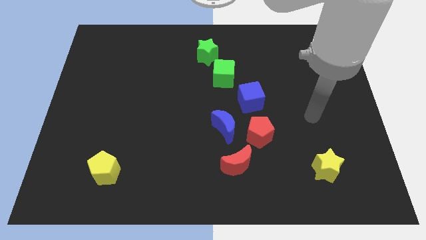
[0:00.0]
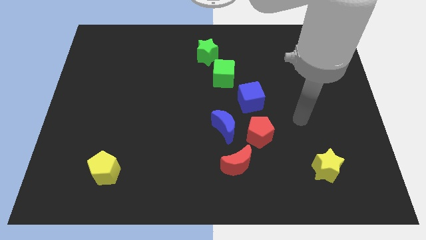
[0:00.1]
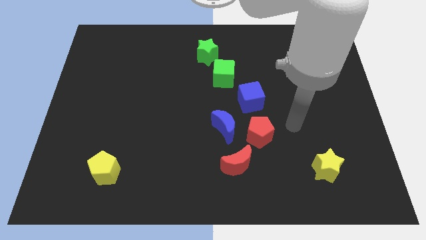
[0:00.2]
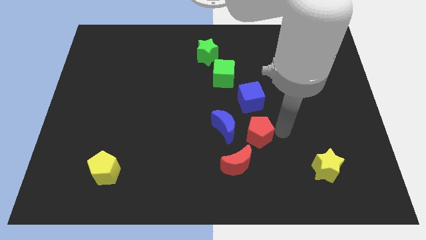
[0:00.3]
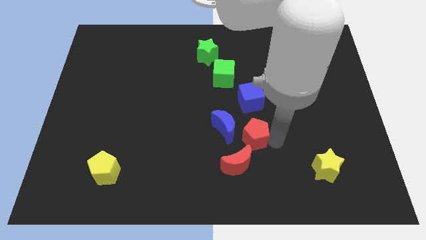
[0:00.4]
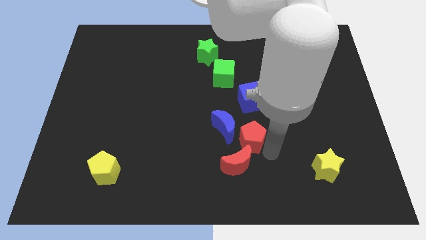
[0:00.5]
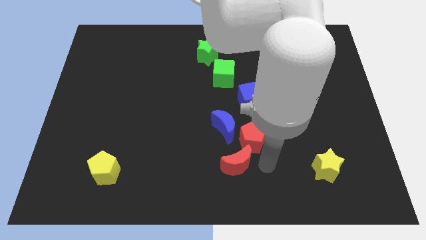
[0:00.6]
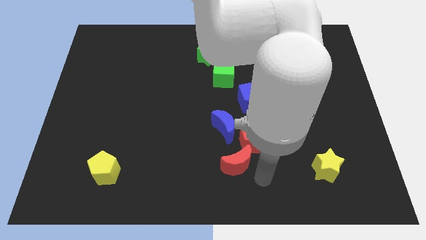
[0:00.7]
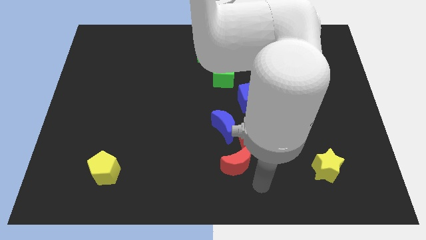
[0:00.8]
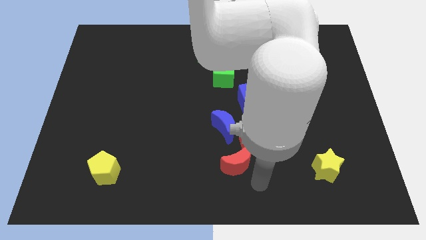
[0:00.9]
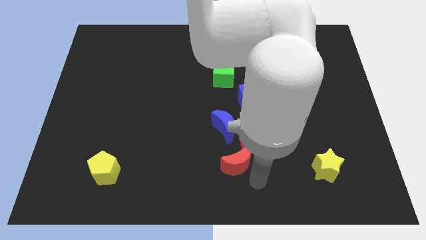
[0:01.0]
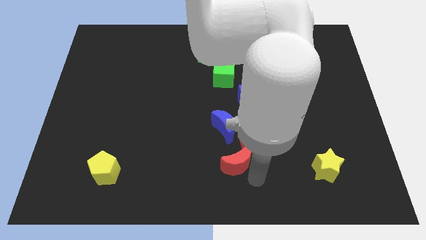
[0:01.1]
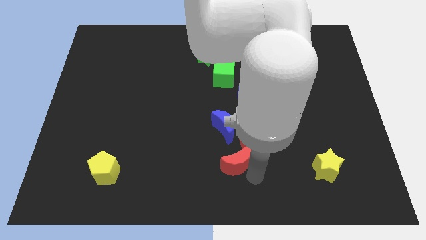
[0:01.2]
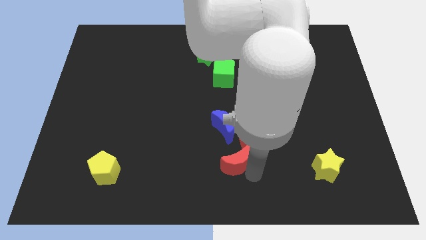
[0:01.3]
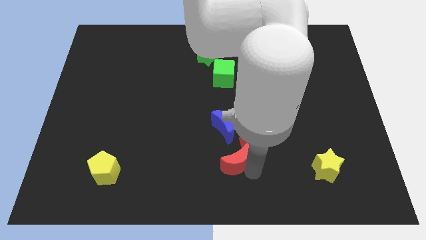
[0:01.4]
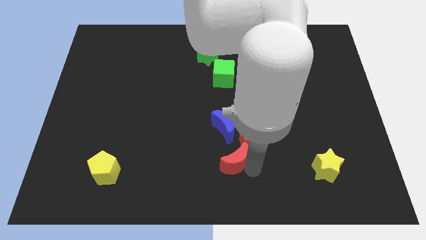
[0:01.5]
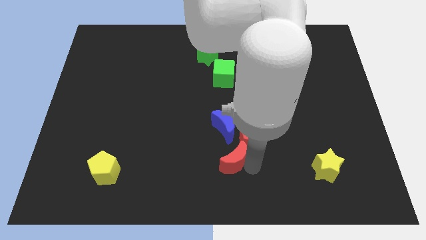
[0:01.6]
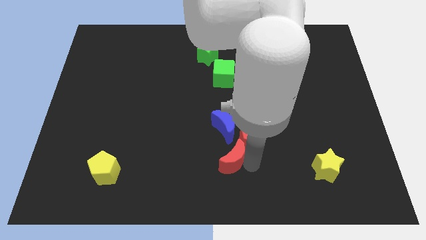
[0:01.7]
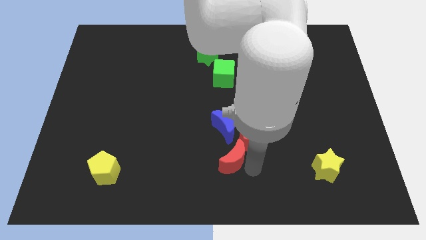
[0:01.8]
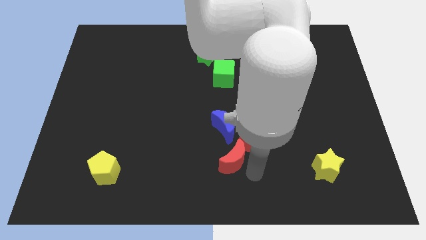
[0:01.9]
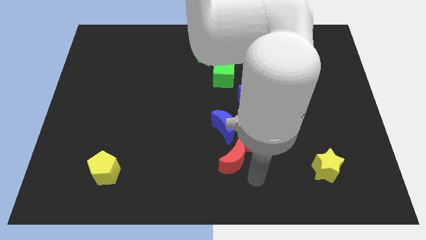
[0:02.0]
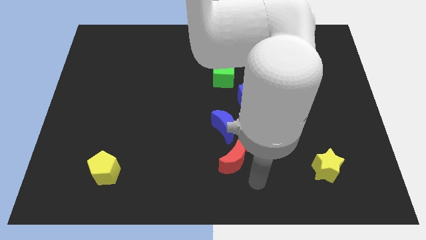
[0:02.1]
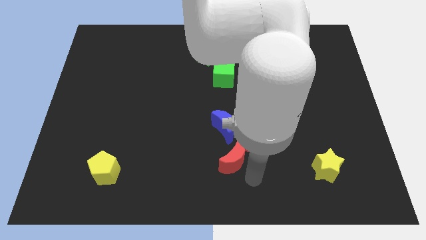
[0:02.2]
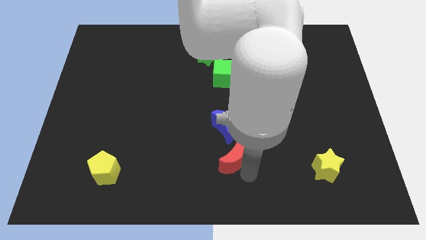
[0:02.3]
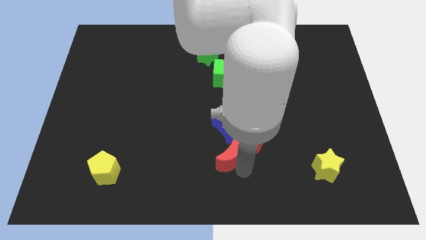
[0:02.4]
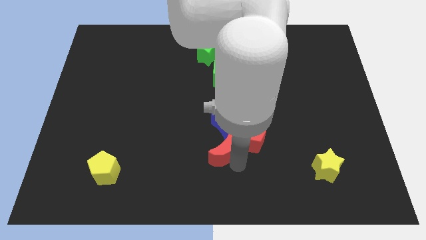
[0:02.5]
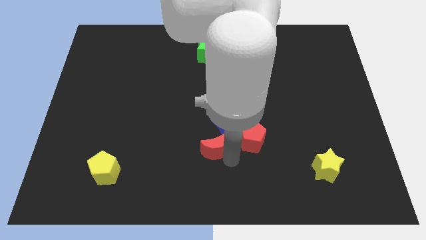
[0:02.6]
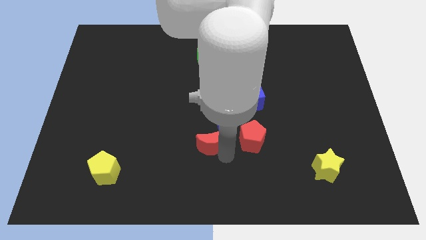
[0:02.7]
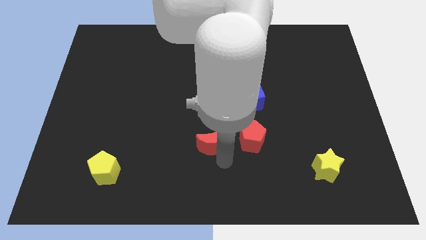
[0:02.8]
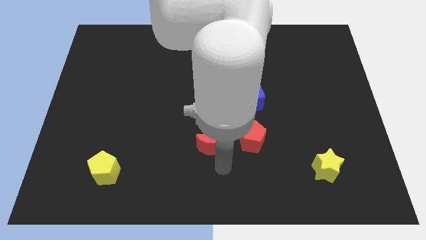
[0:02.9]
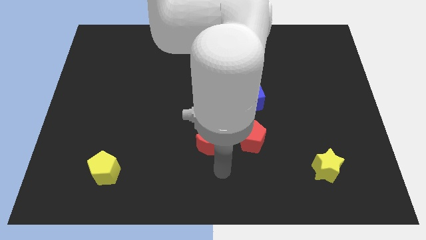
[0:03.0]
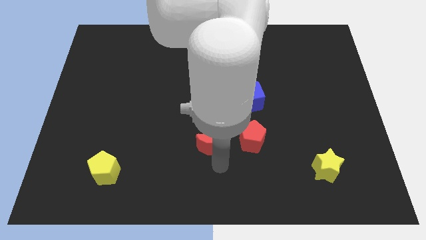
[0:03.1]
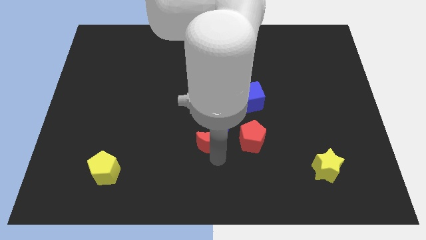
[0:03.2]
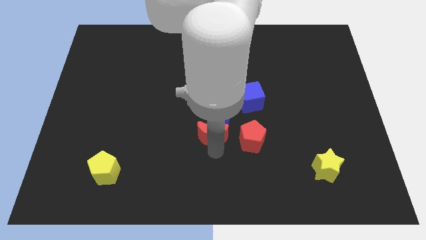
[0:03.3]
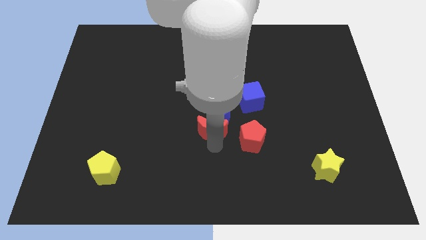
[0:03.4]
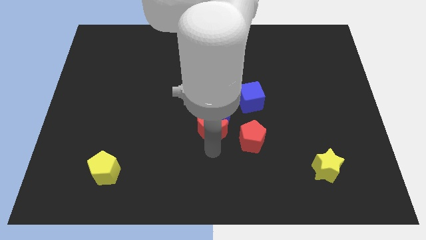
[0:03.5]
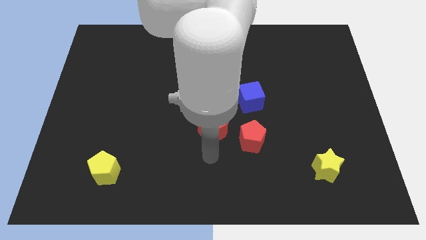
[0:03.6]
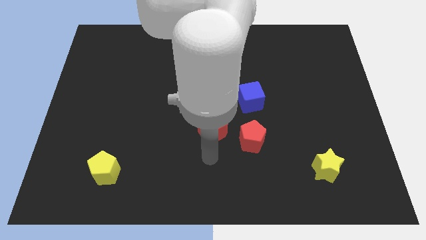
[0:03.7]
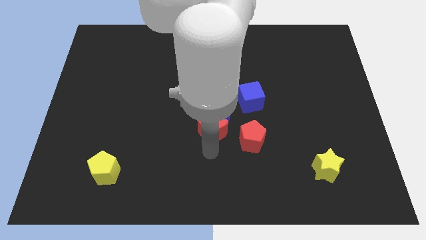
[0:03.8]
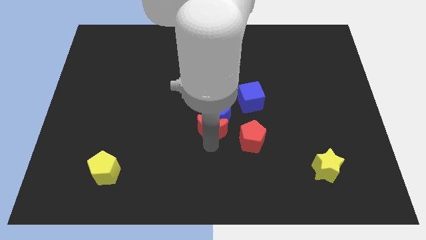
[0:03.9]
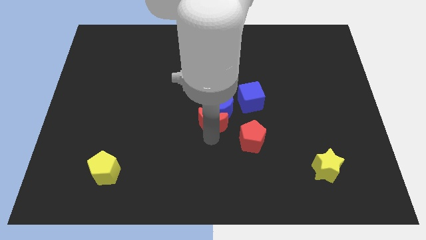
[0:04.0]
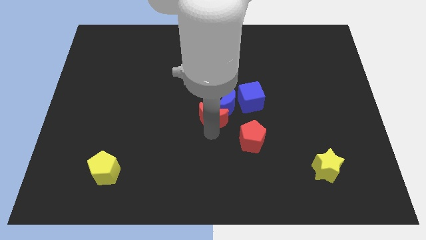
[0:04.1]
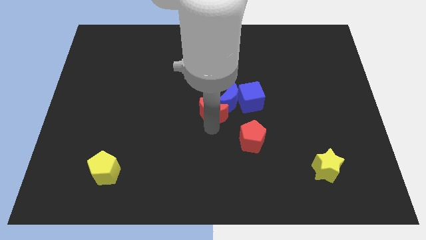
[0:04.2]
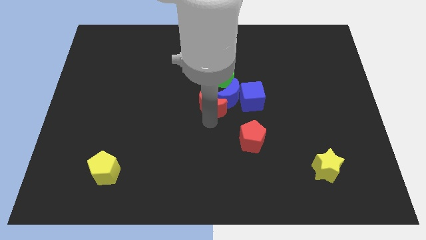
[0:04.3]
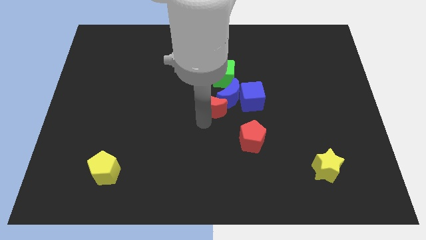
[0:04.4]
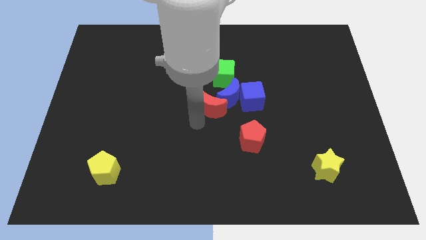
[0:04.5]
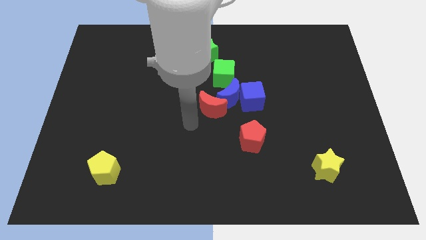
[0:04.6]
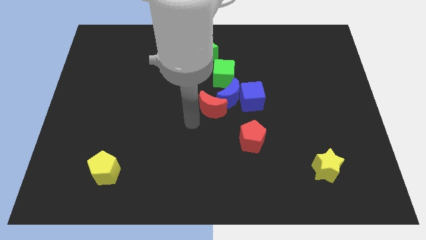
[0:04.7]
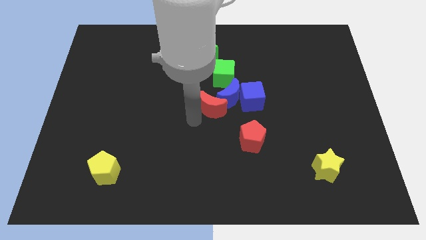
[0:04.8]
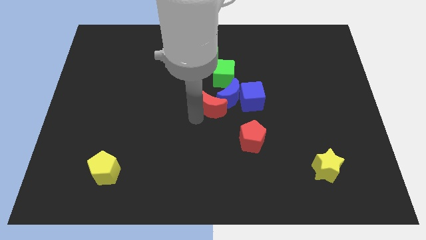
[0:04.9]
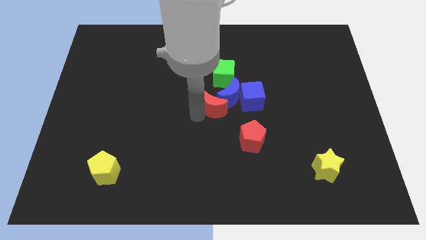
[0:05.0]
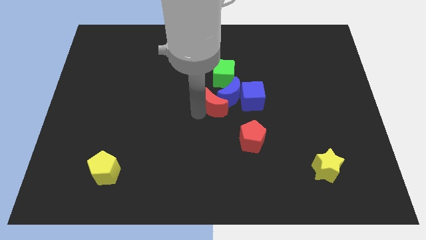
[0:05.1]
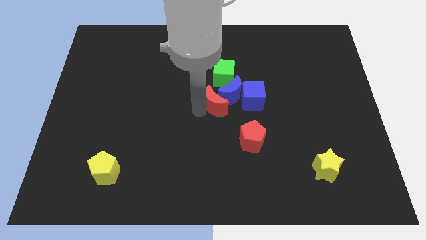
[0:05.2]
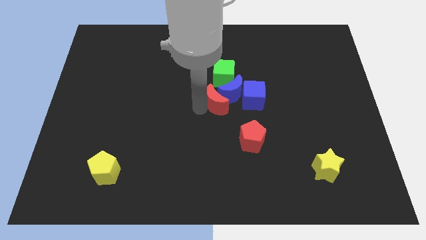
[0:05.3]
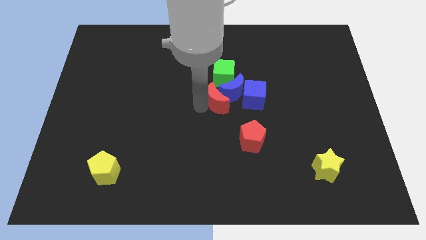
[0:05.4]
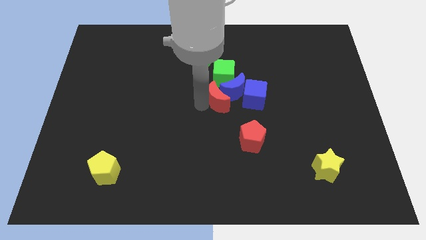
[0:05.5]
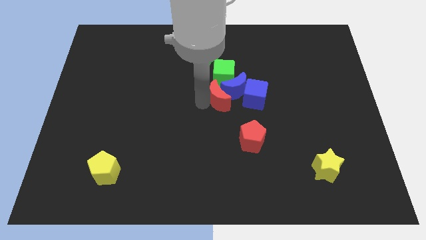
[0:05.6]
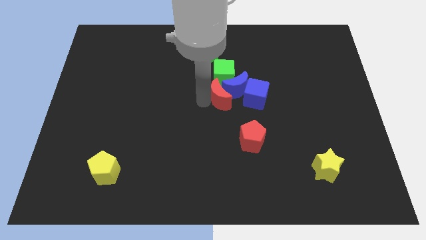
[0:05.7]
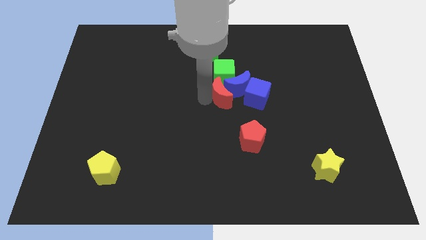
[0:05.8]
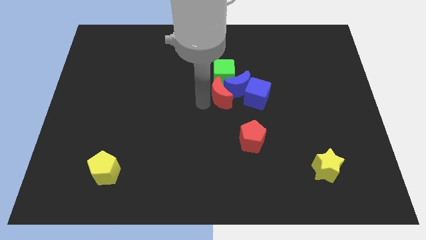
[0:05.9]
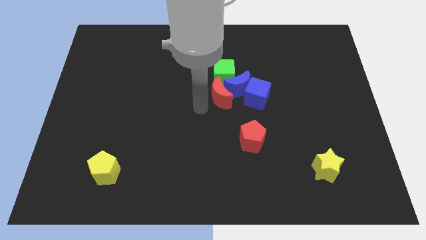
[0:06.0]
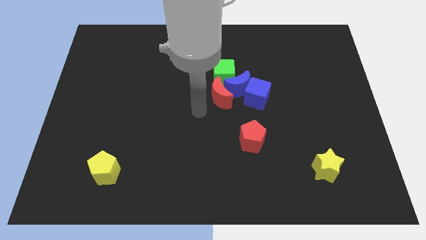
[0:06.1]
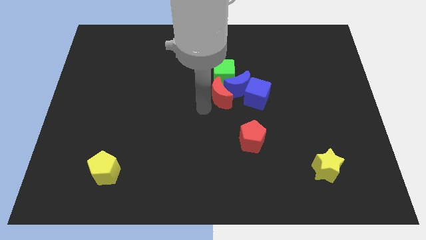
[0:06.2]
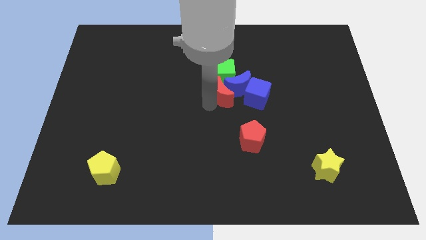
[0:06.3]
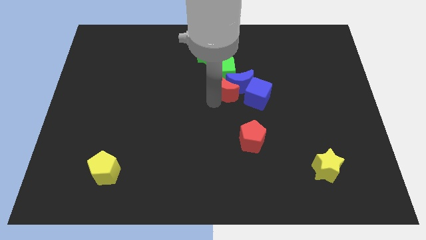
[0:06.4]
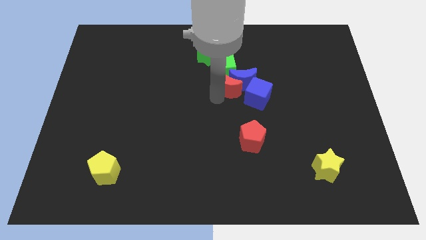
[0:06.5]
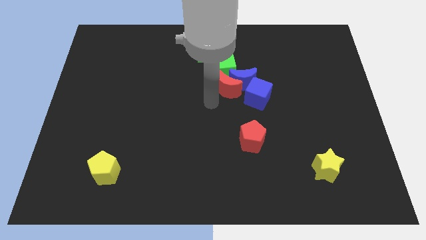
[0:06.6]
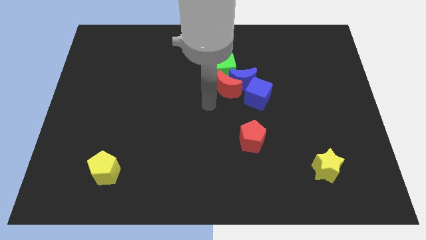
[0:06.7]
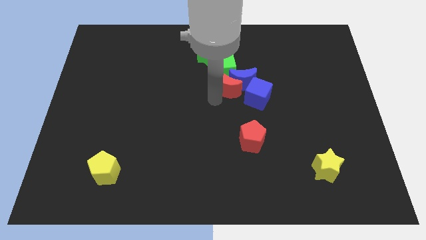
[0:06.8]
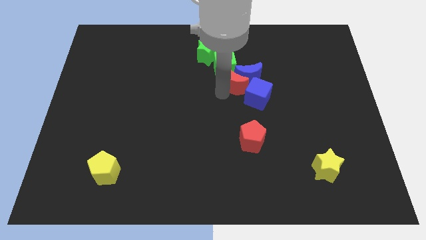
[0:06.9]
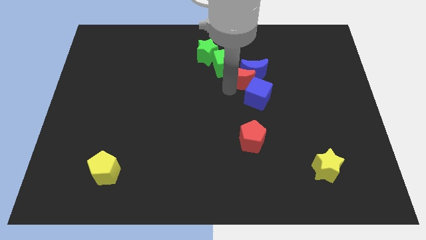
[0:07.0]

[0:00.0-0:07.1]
slide the red moon above the blue cube
